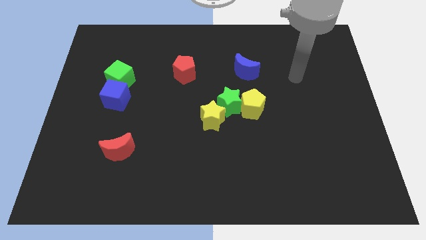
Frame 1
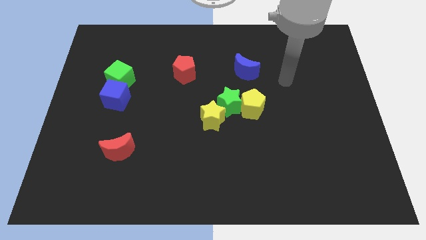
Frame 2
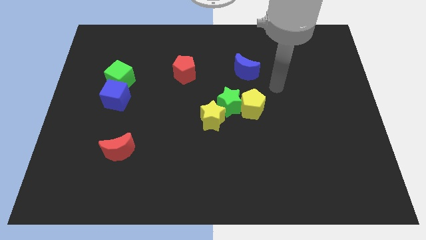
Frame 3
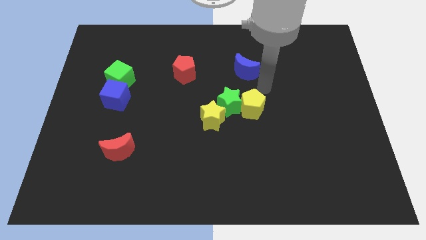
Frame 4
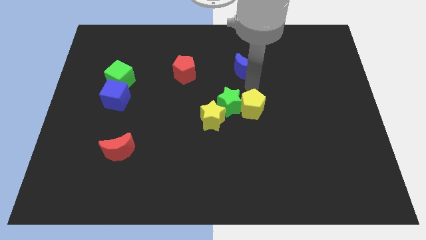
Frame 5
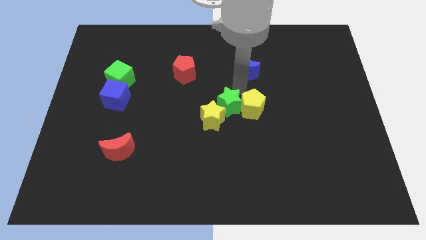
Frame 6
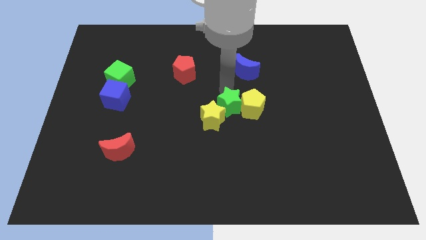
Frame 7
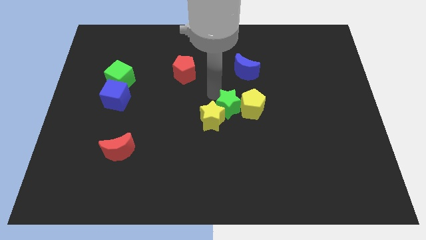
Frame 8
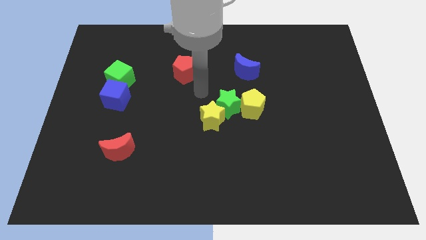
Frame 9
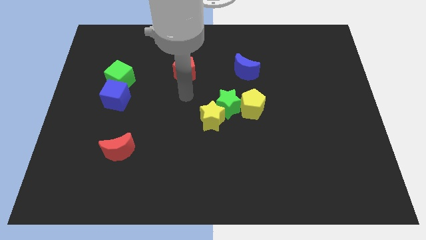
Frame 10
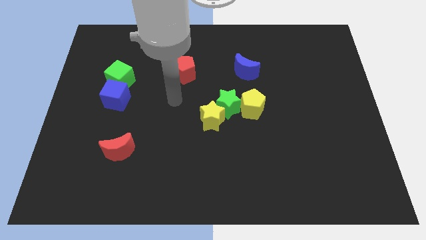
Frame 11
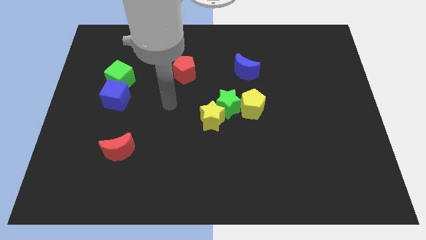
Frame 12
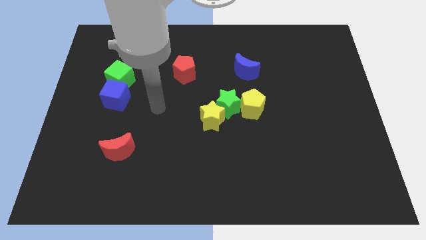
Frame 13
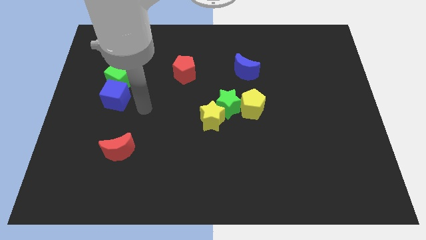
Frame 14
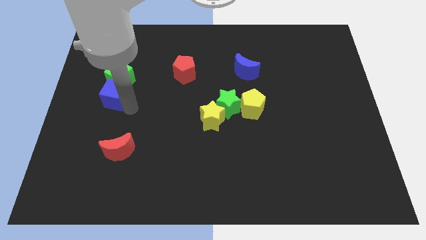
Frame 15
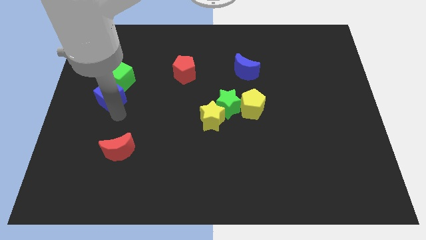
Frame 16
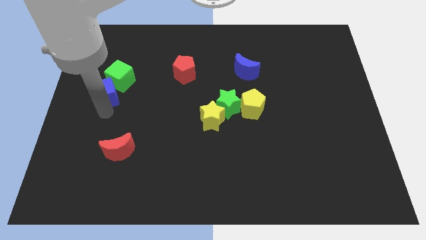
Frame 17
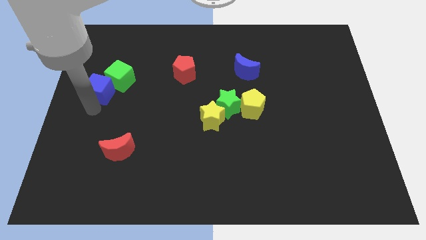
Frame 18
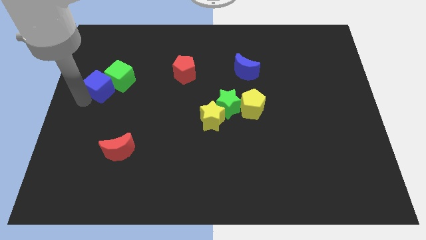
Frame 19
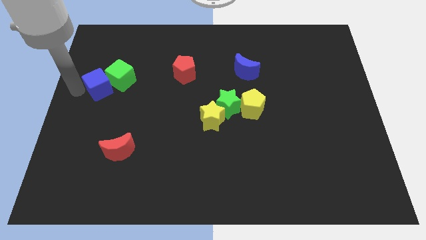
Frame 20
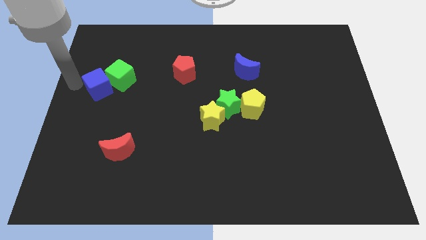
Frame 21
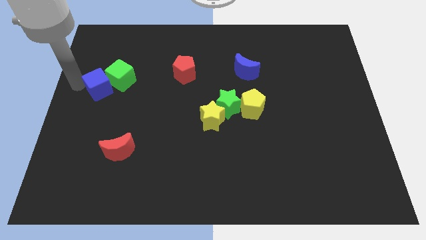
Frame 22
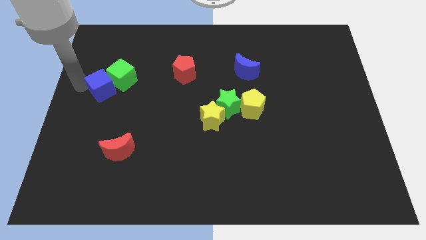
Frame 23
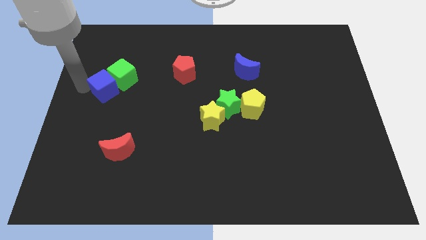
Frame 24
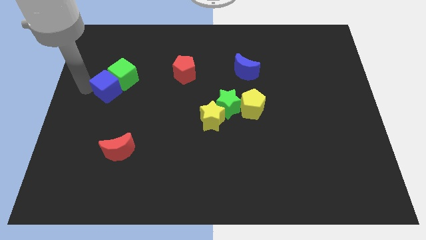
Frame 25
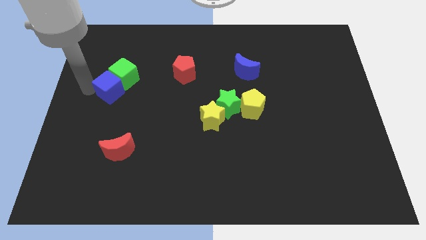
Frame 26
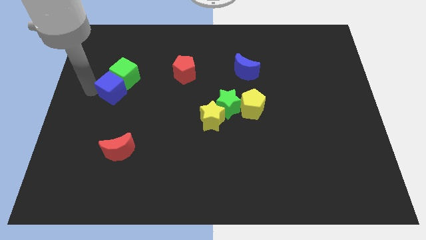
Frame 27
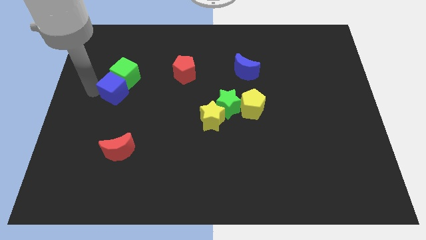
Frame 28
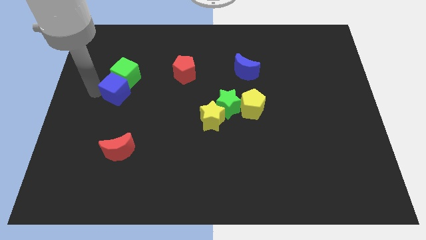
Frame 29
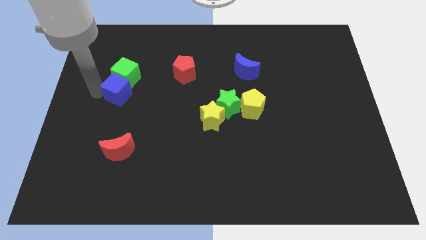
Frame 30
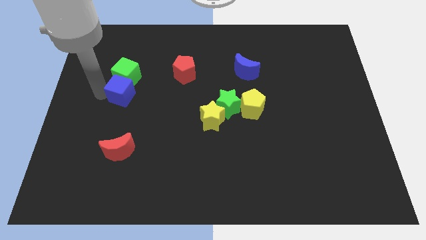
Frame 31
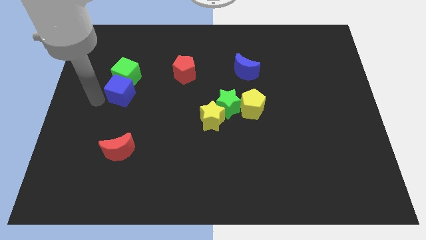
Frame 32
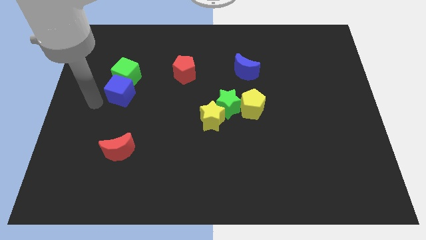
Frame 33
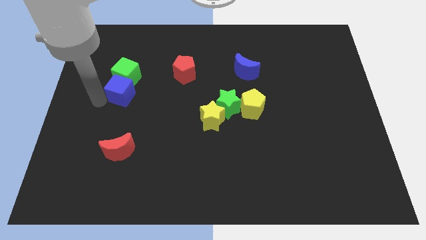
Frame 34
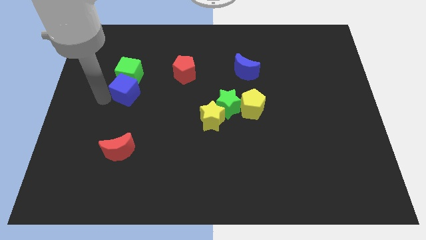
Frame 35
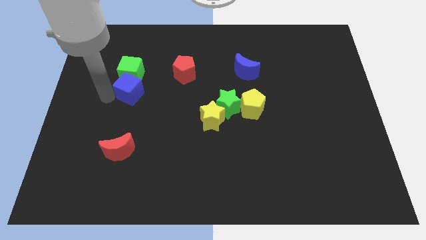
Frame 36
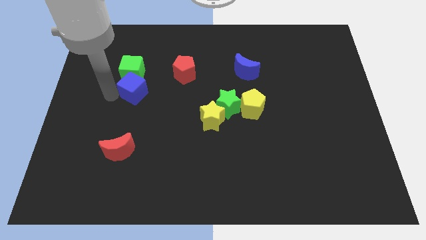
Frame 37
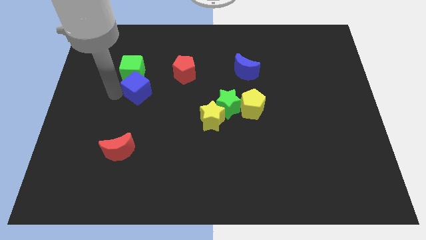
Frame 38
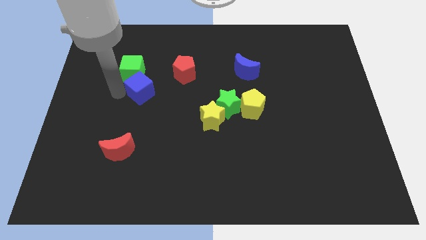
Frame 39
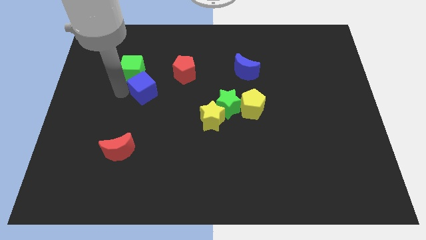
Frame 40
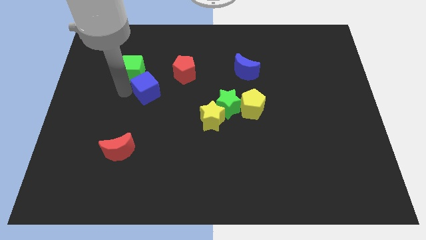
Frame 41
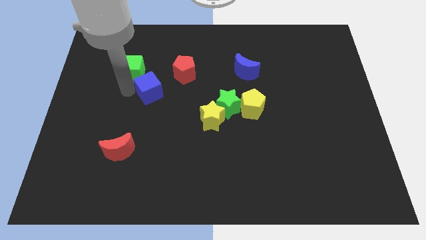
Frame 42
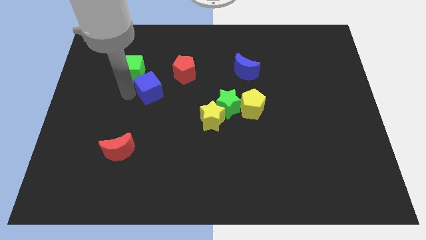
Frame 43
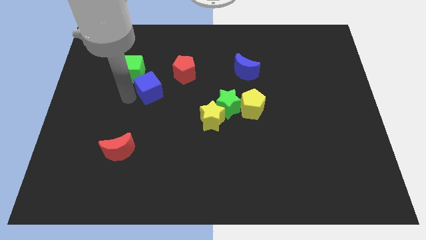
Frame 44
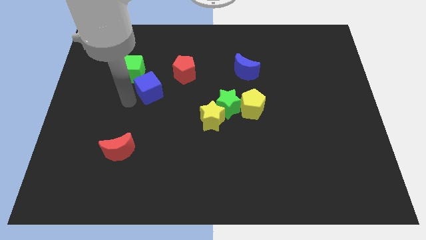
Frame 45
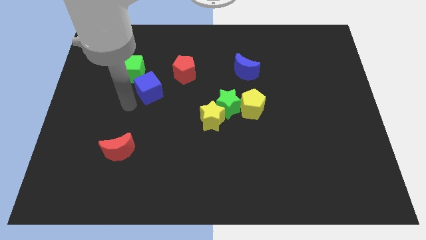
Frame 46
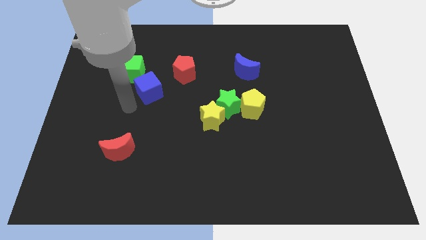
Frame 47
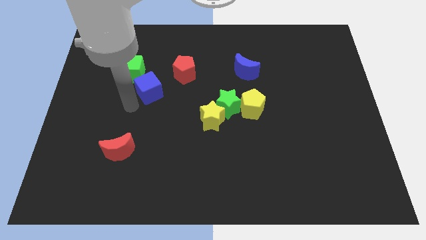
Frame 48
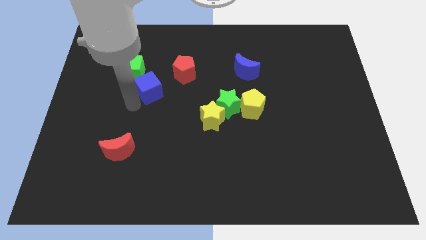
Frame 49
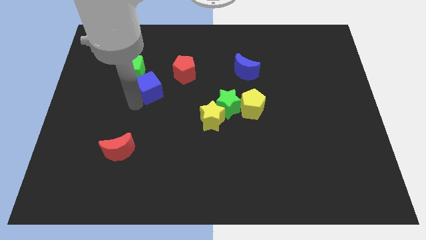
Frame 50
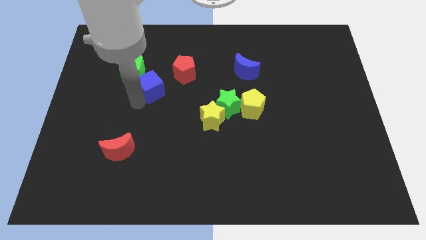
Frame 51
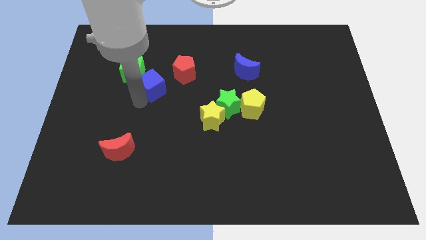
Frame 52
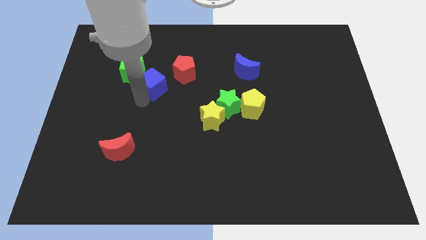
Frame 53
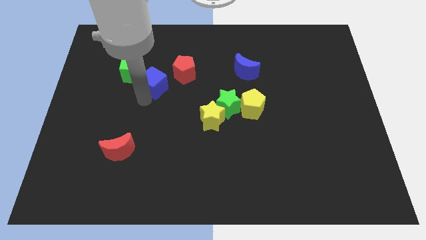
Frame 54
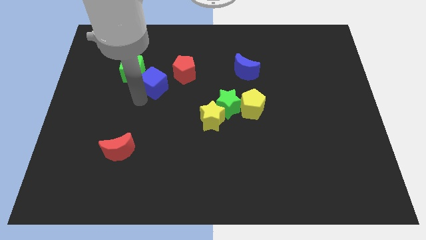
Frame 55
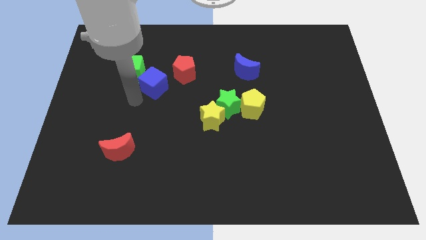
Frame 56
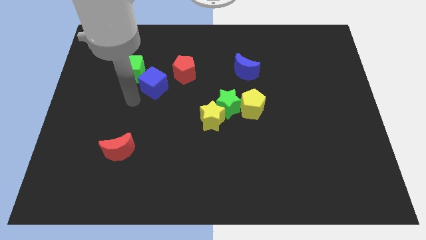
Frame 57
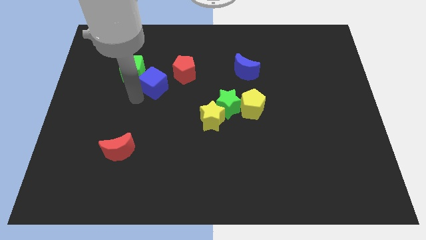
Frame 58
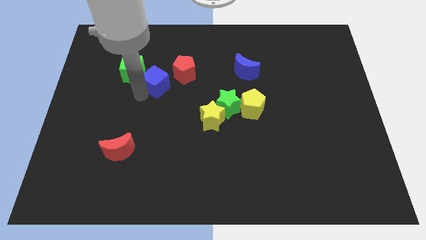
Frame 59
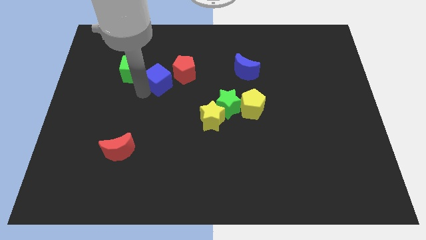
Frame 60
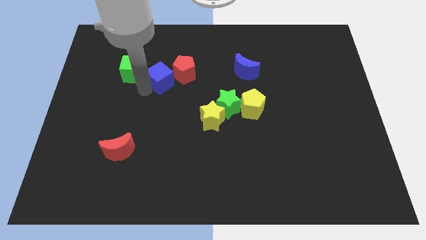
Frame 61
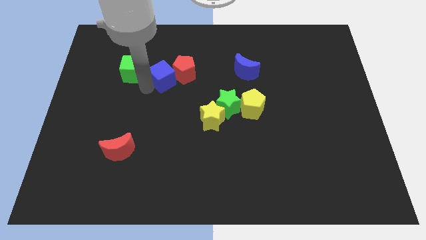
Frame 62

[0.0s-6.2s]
put the blue cube close to the red pentagon

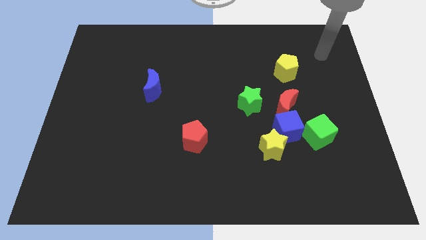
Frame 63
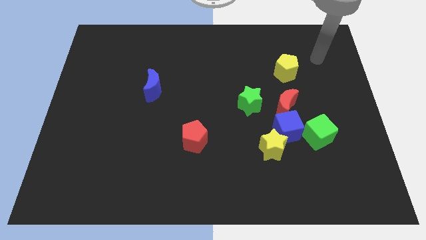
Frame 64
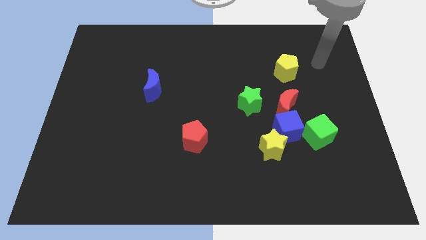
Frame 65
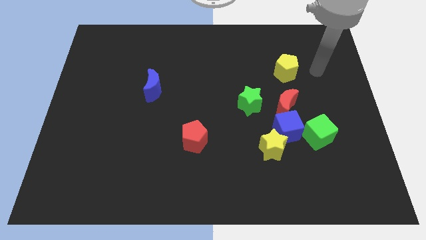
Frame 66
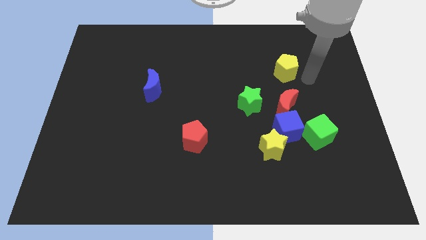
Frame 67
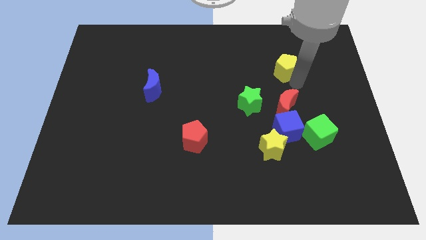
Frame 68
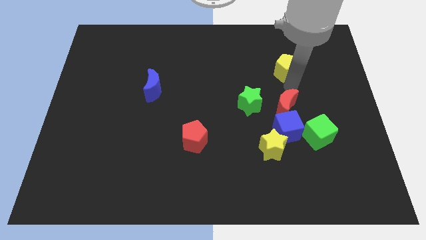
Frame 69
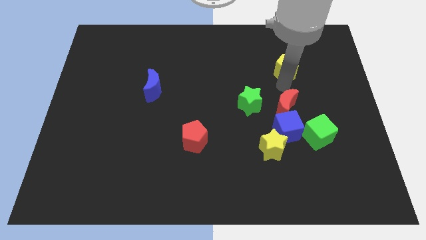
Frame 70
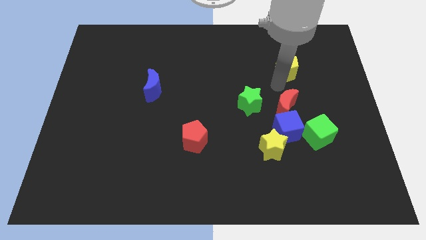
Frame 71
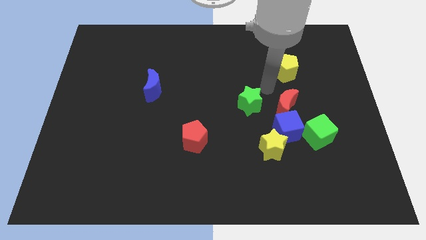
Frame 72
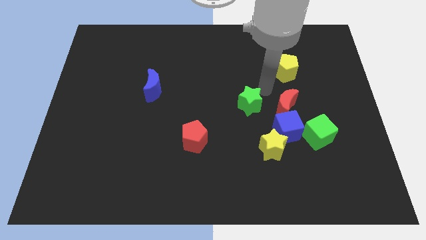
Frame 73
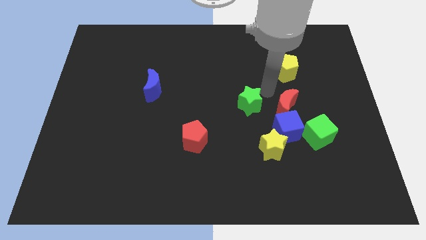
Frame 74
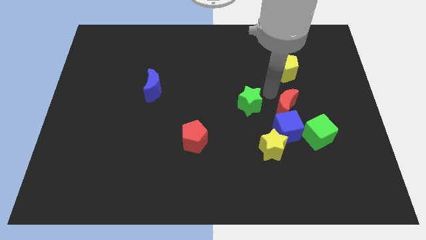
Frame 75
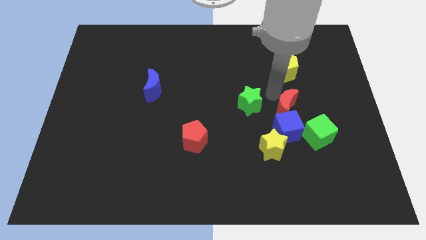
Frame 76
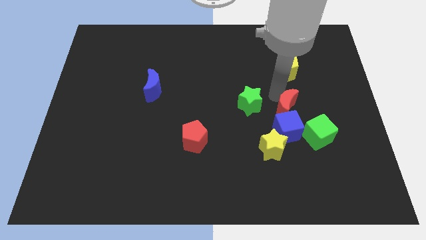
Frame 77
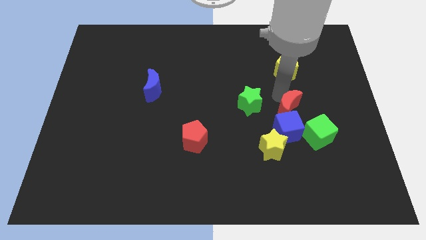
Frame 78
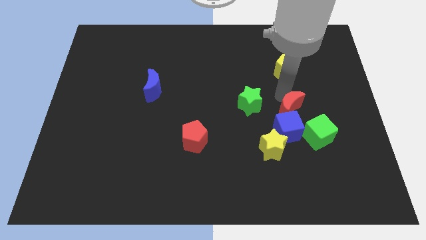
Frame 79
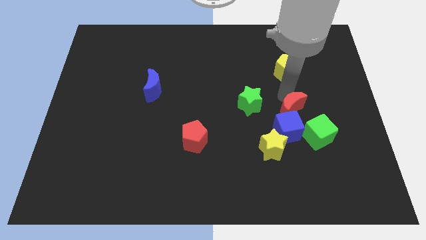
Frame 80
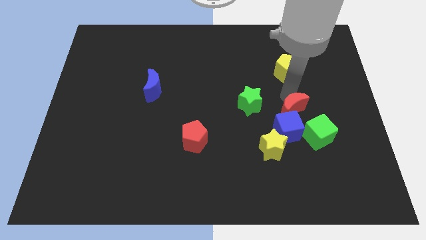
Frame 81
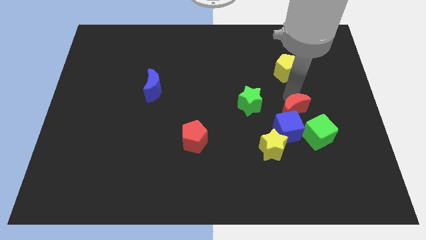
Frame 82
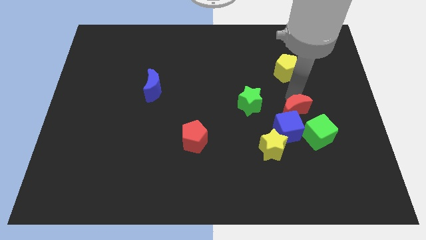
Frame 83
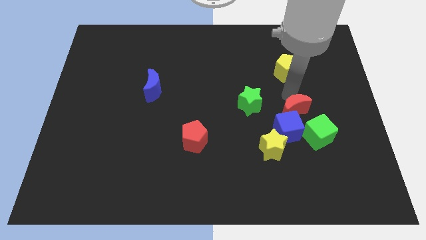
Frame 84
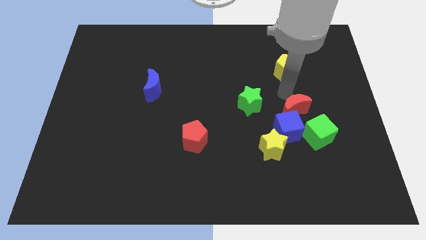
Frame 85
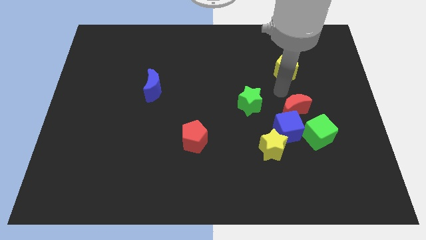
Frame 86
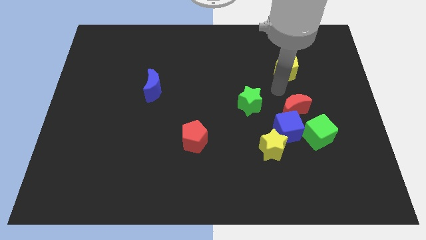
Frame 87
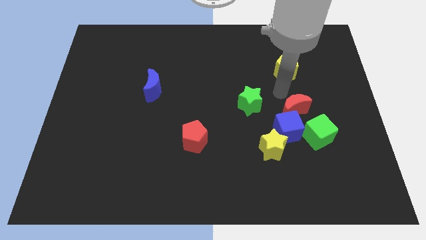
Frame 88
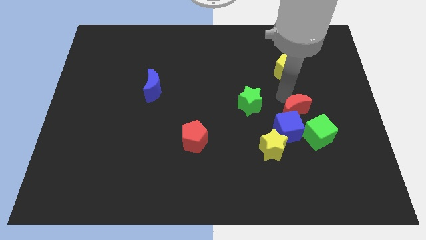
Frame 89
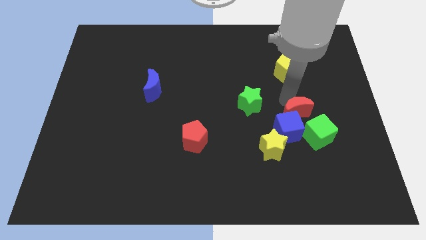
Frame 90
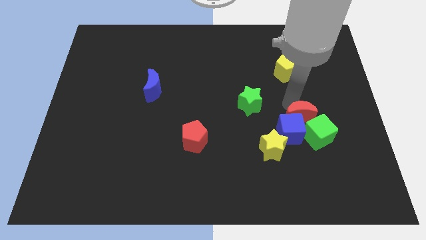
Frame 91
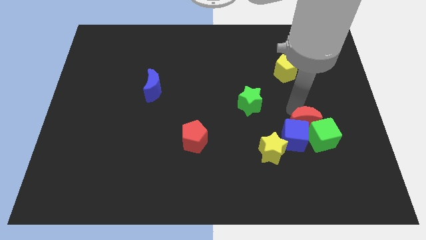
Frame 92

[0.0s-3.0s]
move the red moon to the green cube
